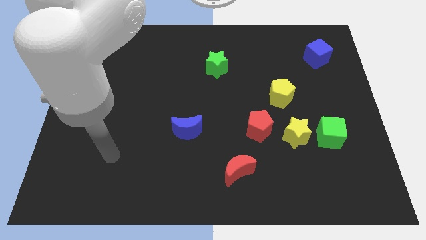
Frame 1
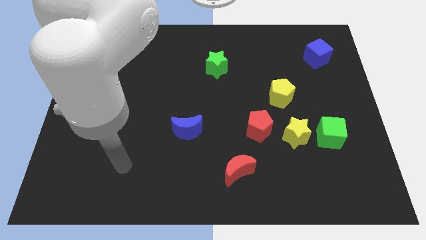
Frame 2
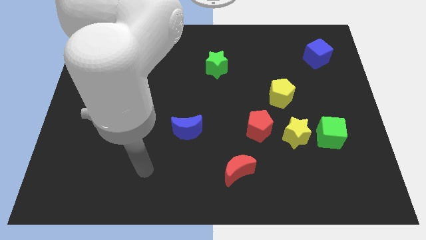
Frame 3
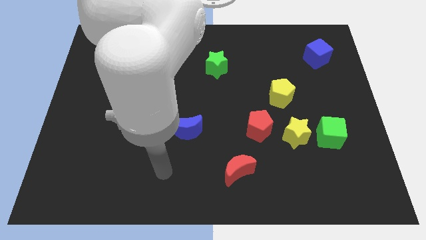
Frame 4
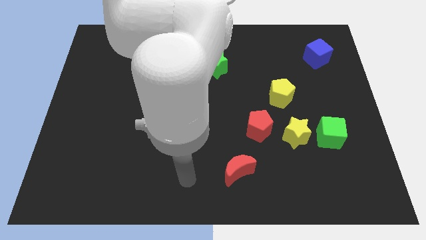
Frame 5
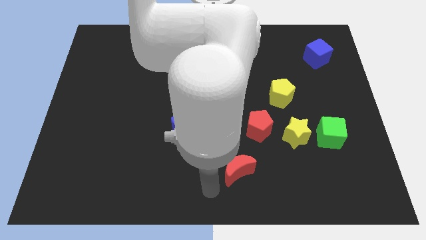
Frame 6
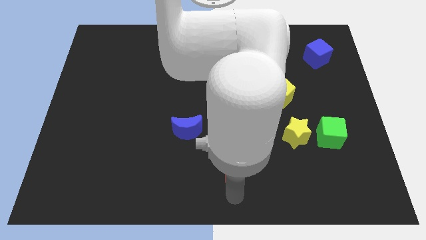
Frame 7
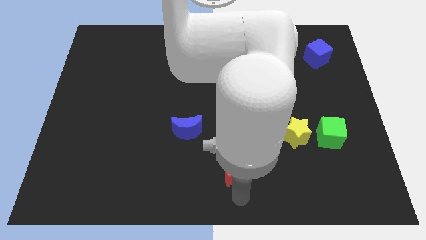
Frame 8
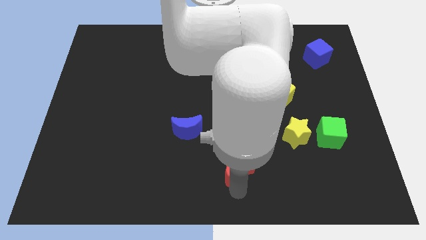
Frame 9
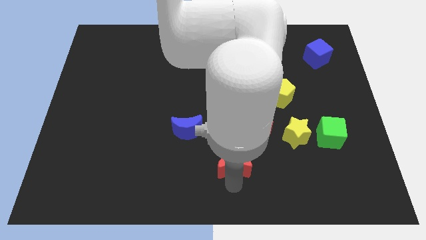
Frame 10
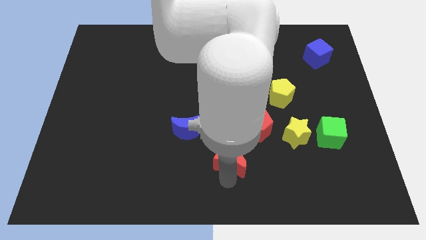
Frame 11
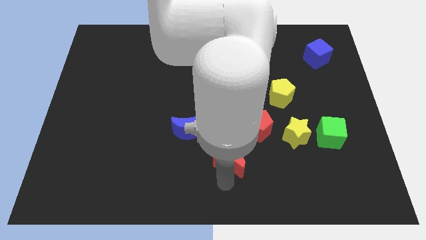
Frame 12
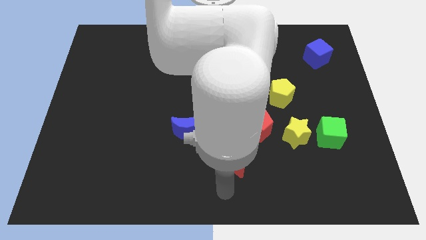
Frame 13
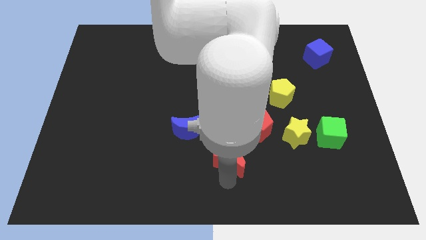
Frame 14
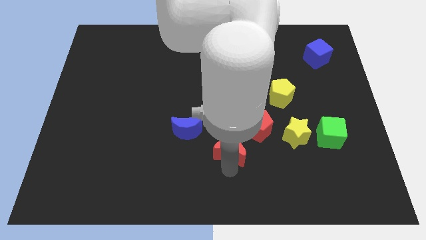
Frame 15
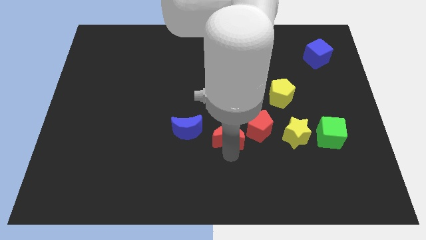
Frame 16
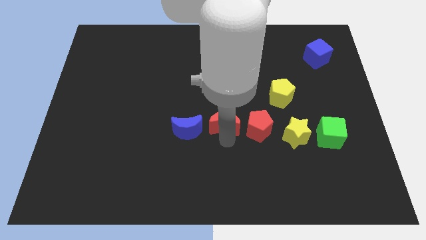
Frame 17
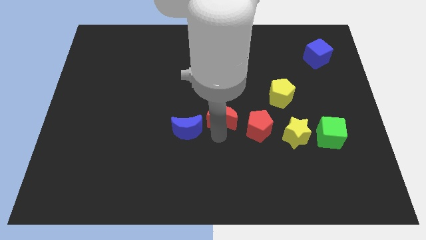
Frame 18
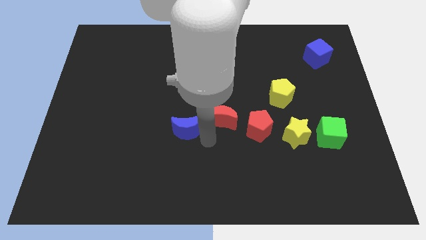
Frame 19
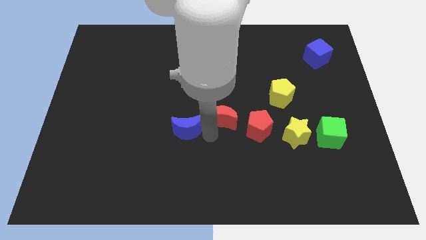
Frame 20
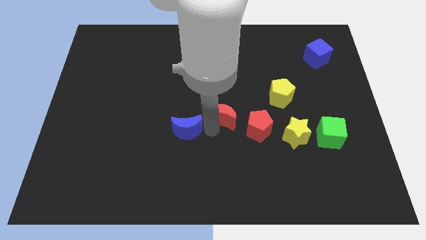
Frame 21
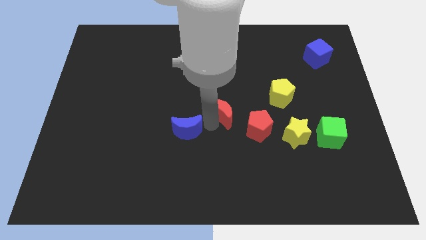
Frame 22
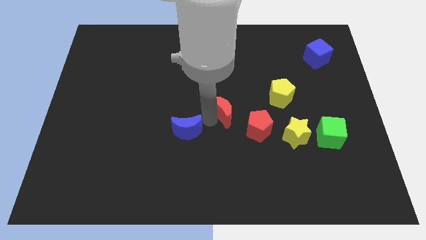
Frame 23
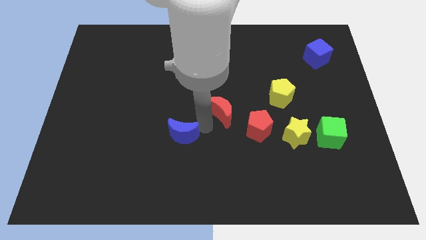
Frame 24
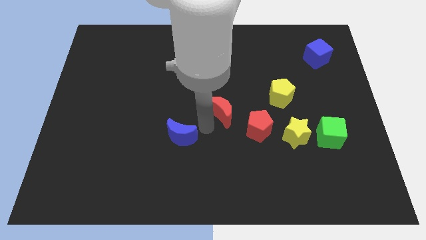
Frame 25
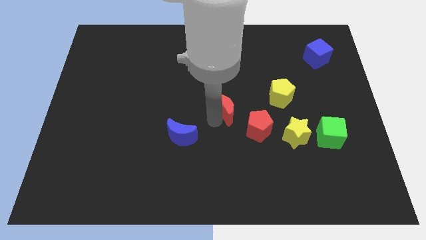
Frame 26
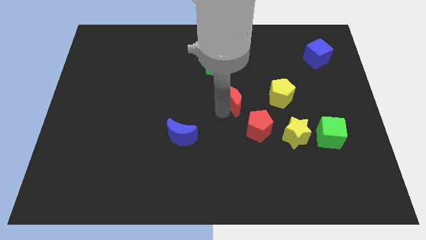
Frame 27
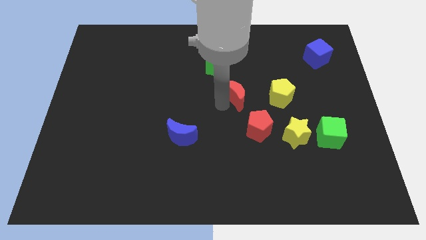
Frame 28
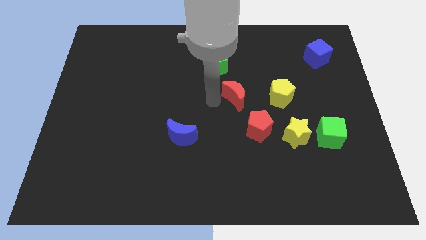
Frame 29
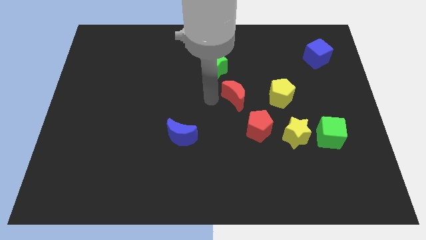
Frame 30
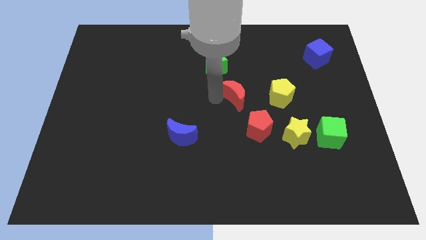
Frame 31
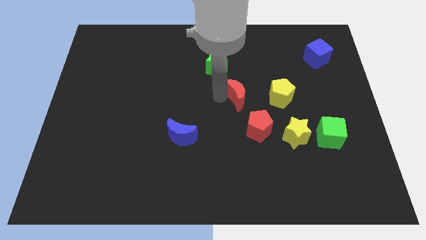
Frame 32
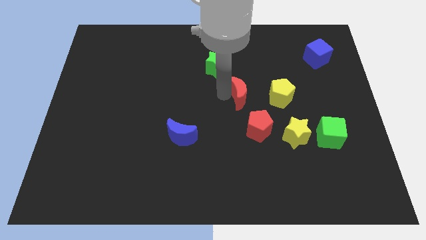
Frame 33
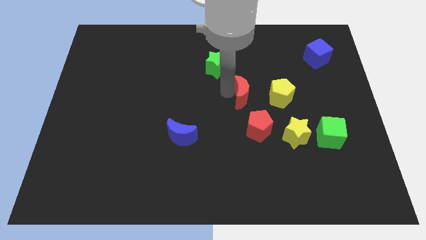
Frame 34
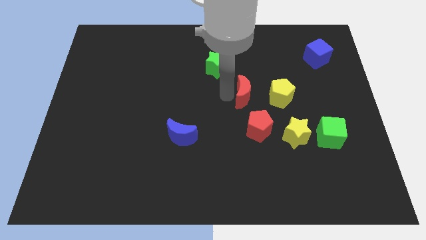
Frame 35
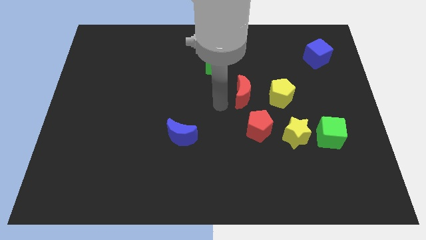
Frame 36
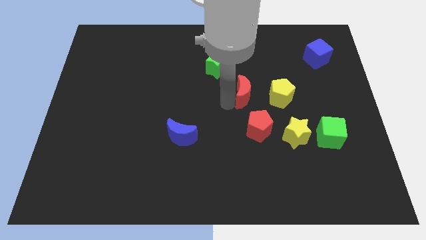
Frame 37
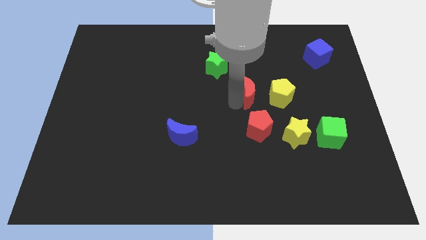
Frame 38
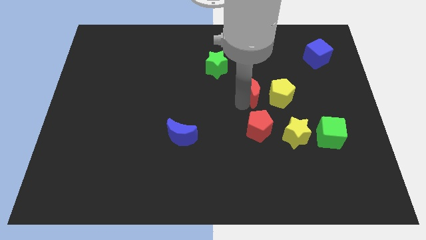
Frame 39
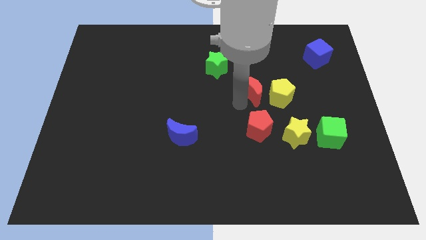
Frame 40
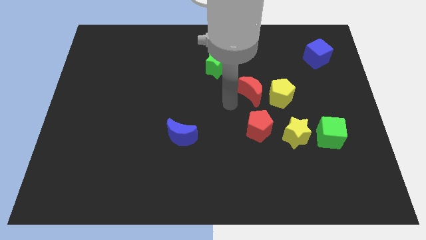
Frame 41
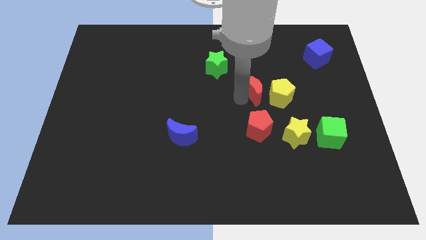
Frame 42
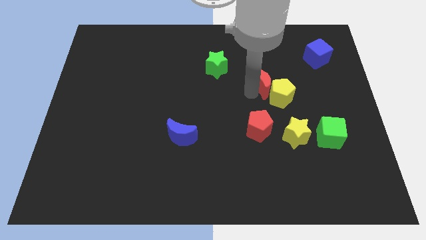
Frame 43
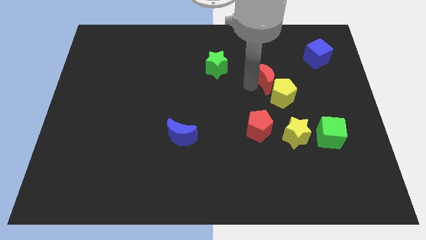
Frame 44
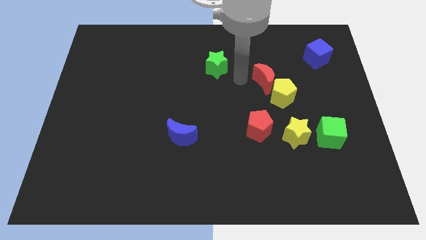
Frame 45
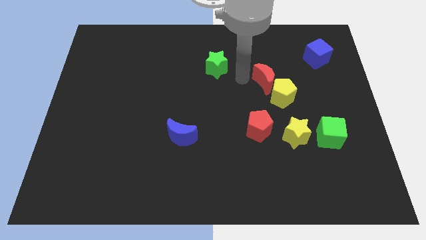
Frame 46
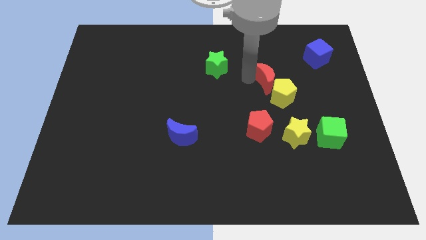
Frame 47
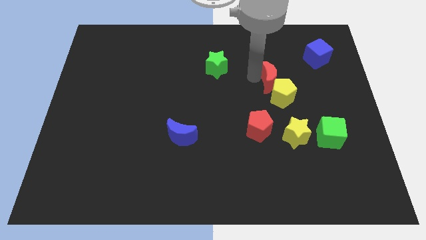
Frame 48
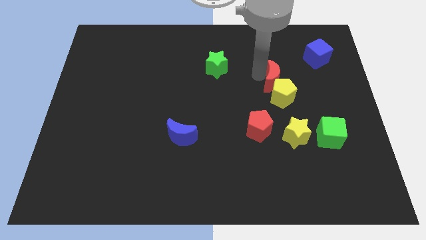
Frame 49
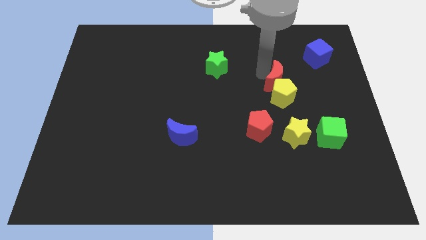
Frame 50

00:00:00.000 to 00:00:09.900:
move the red moon diagonally up and to the right

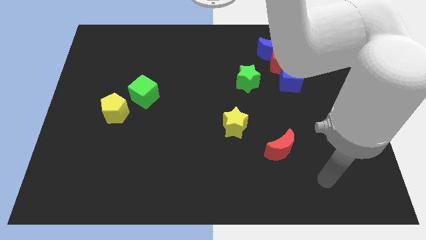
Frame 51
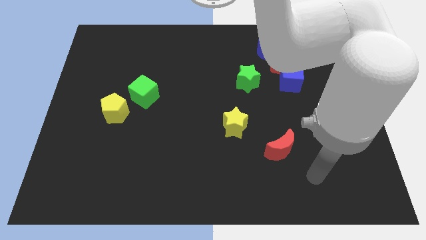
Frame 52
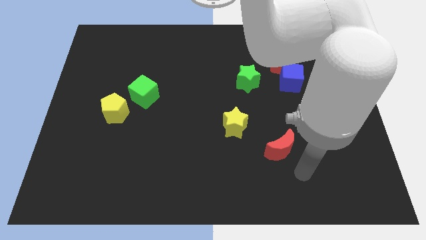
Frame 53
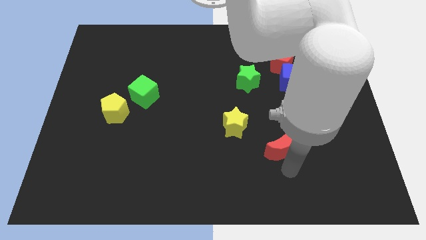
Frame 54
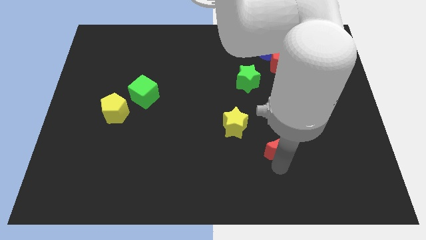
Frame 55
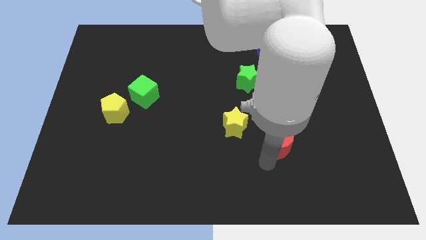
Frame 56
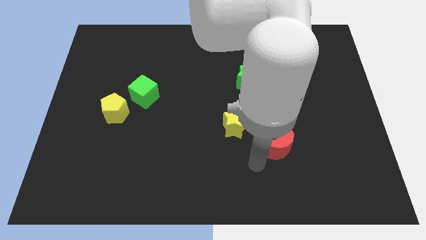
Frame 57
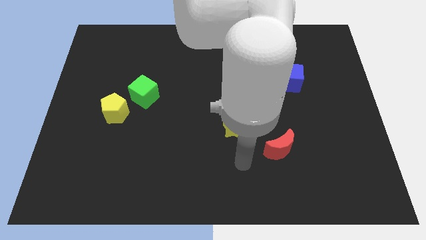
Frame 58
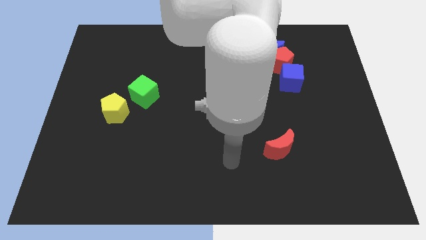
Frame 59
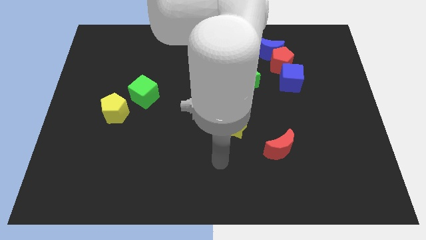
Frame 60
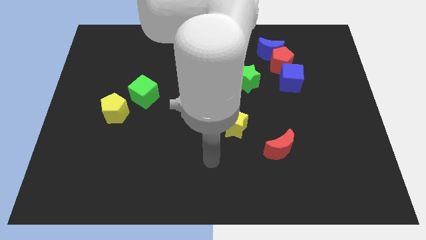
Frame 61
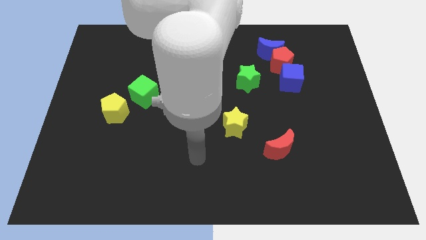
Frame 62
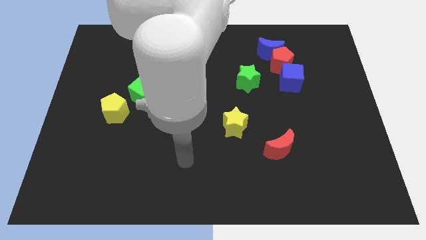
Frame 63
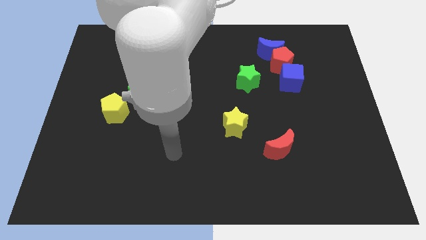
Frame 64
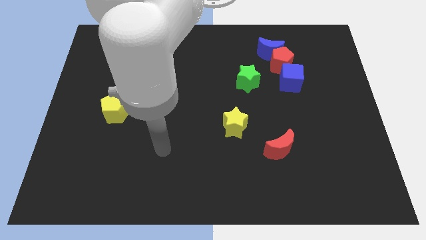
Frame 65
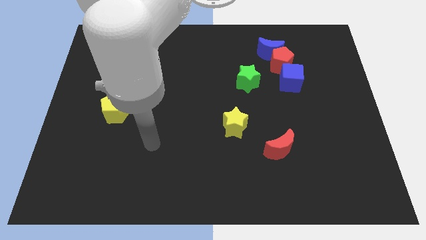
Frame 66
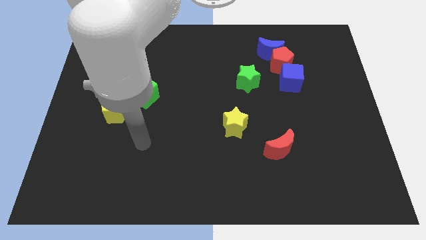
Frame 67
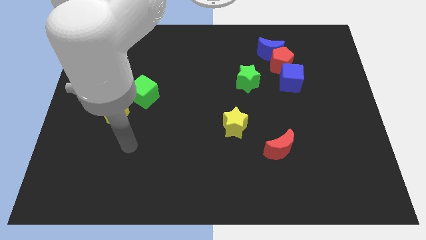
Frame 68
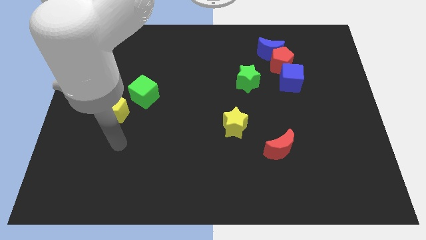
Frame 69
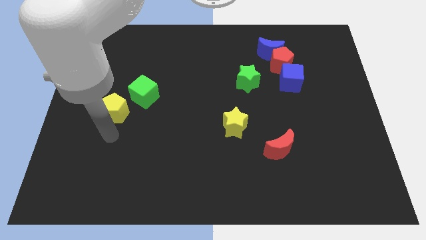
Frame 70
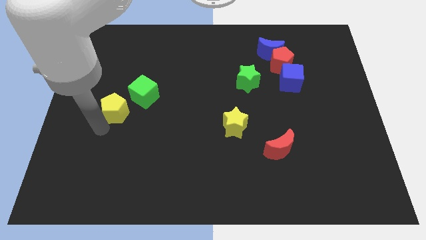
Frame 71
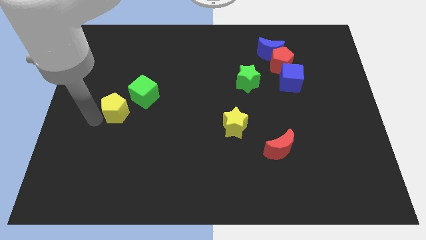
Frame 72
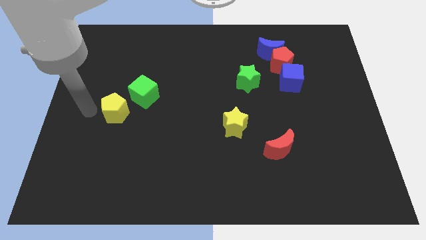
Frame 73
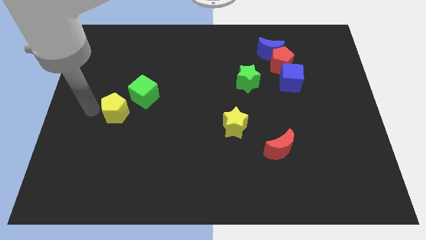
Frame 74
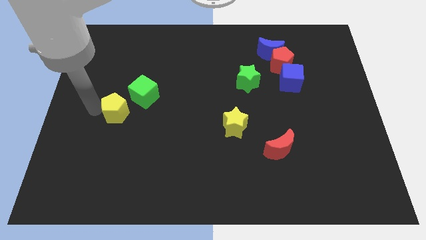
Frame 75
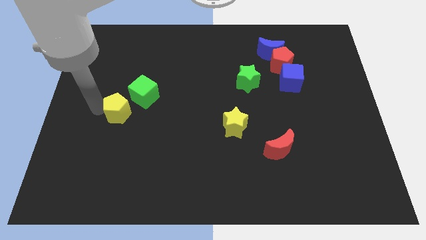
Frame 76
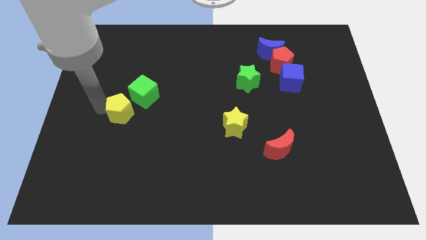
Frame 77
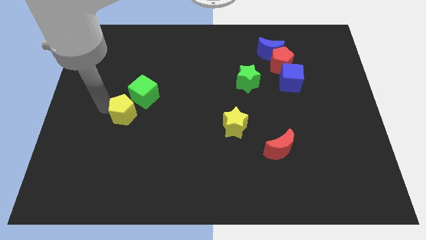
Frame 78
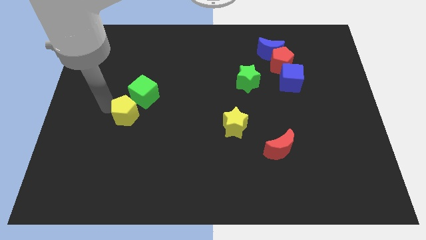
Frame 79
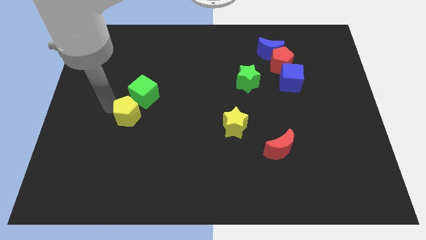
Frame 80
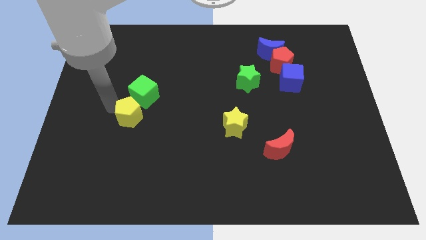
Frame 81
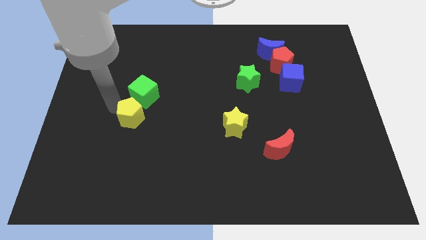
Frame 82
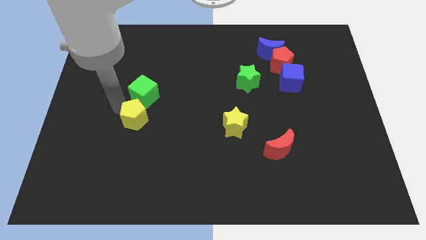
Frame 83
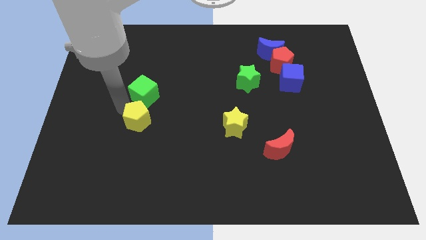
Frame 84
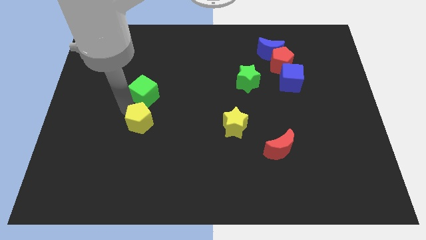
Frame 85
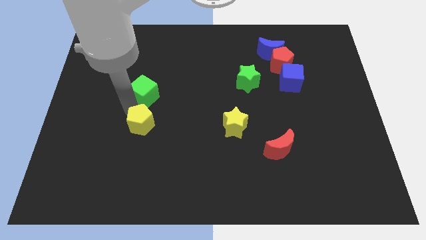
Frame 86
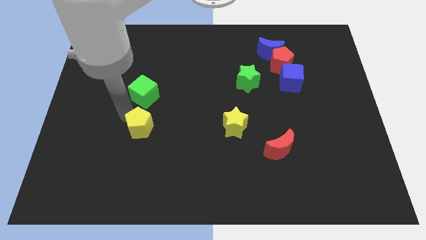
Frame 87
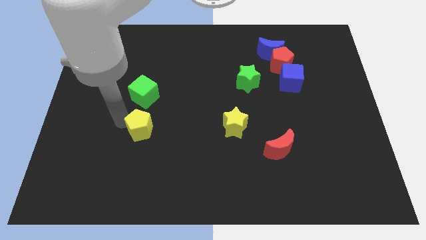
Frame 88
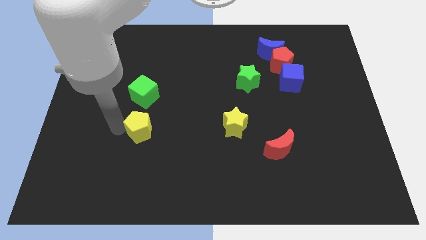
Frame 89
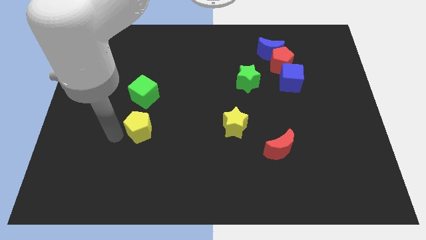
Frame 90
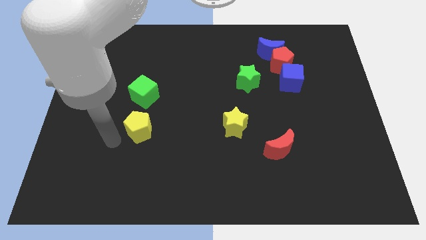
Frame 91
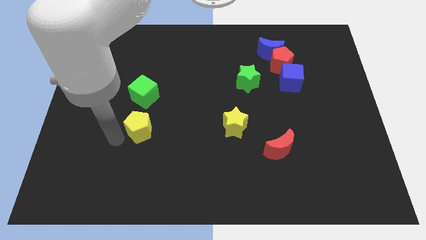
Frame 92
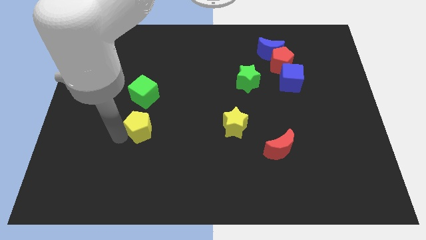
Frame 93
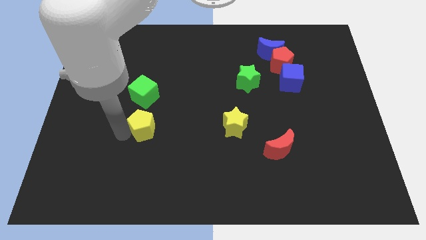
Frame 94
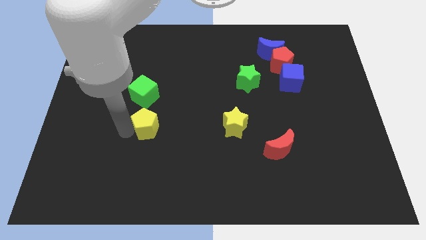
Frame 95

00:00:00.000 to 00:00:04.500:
push the yellow pentagon a little bit right
